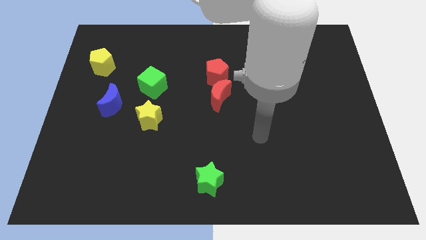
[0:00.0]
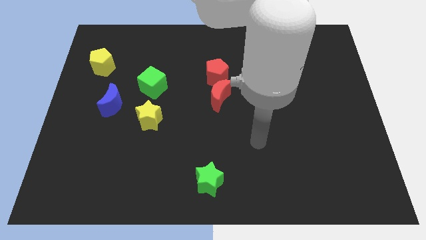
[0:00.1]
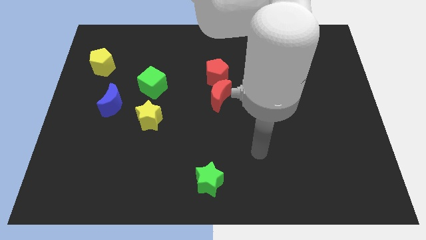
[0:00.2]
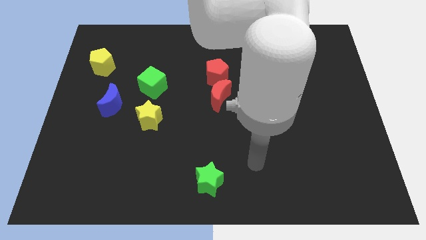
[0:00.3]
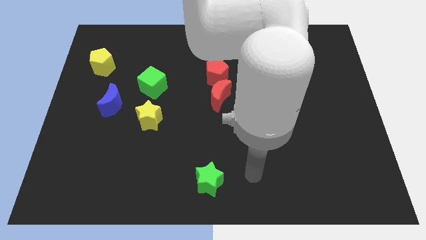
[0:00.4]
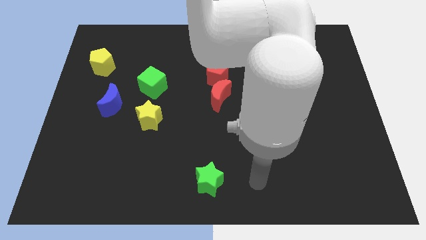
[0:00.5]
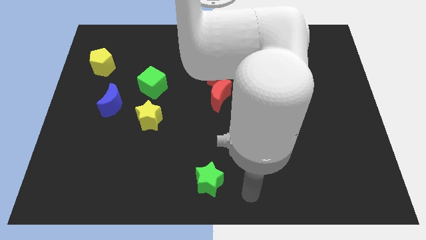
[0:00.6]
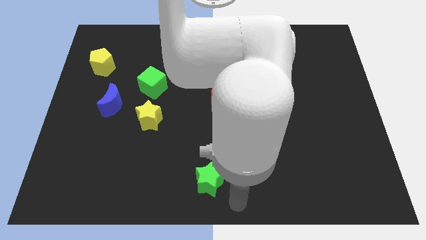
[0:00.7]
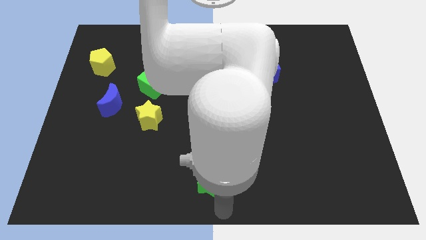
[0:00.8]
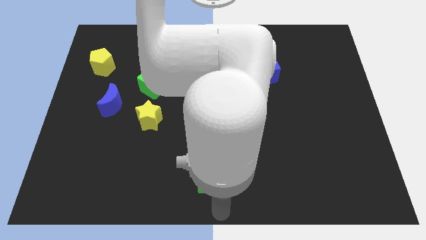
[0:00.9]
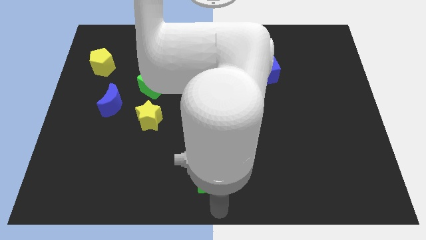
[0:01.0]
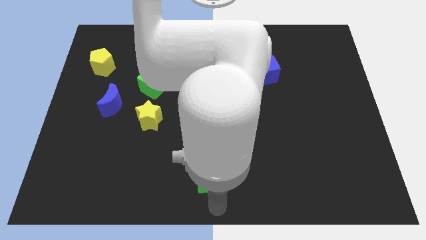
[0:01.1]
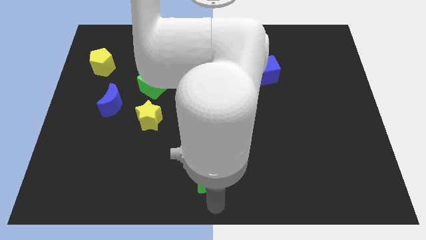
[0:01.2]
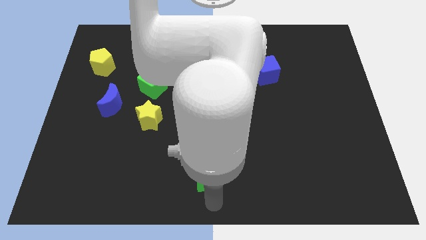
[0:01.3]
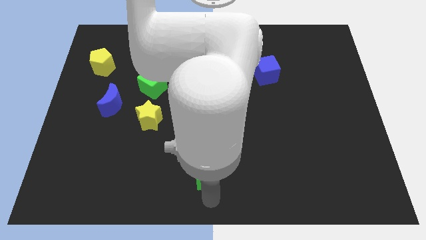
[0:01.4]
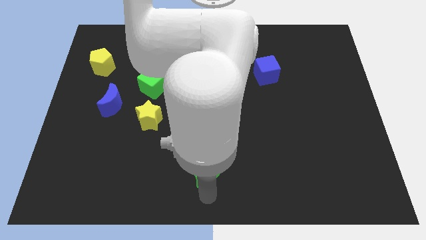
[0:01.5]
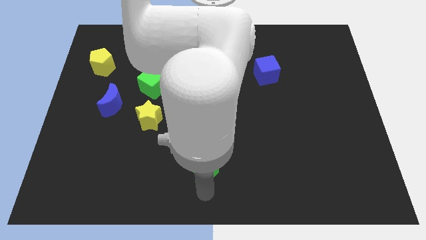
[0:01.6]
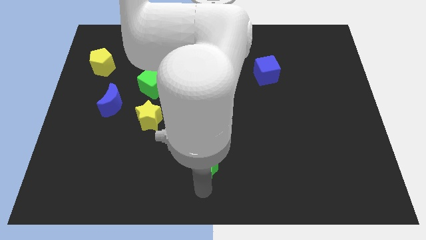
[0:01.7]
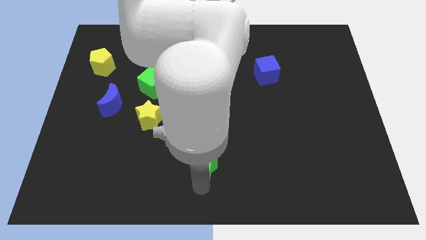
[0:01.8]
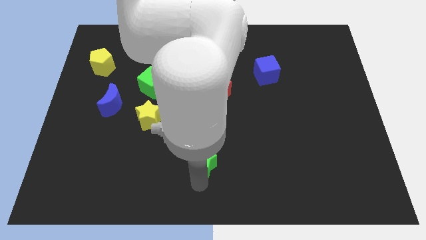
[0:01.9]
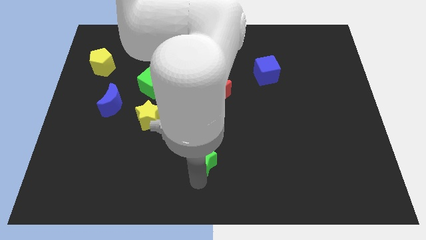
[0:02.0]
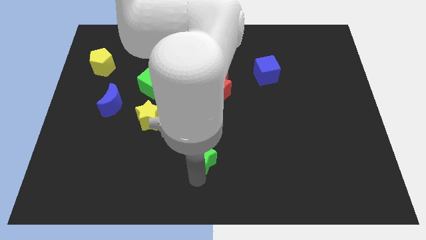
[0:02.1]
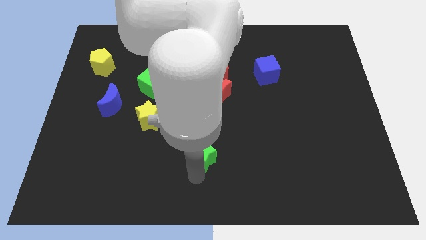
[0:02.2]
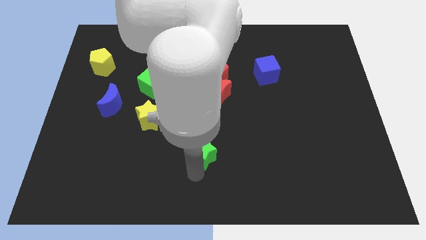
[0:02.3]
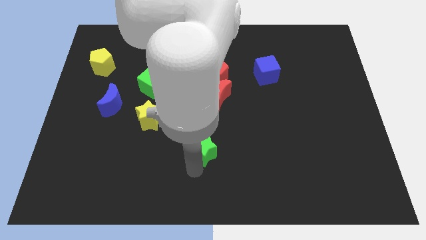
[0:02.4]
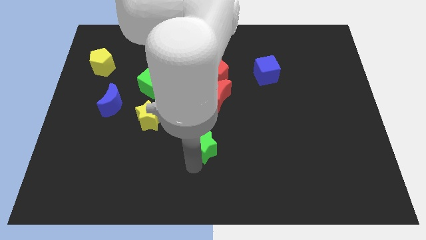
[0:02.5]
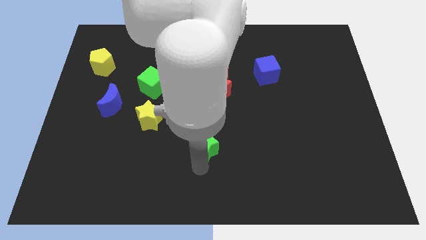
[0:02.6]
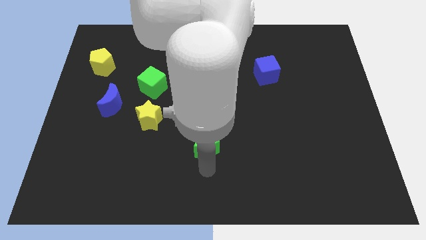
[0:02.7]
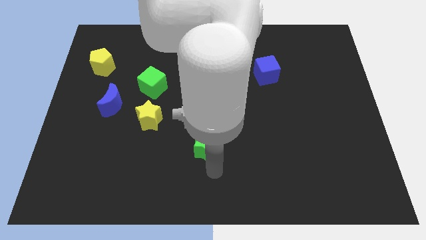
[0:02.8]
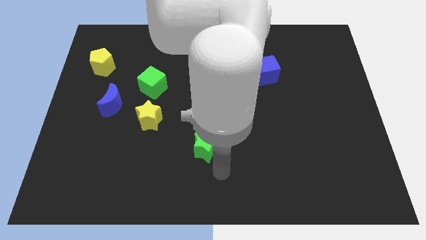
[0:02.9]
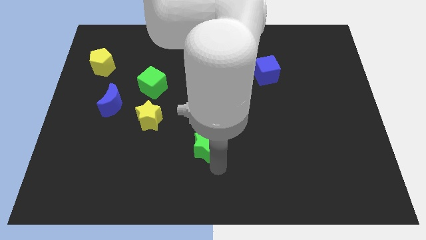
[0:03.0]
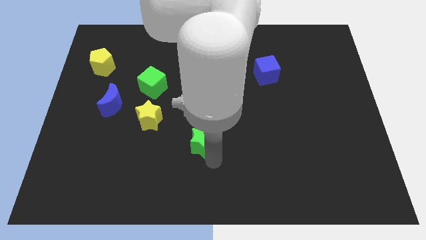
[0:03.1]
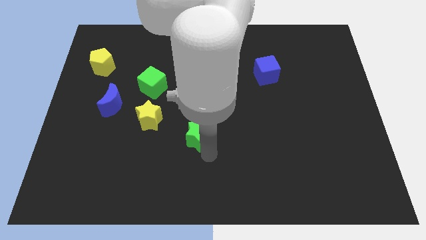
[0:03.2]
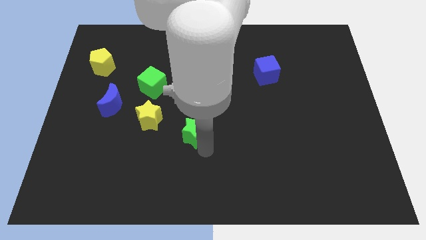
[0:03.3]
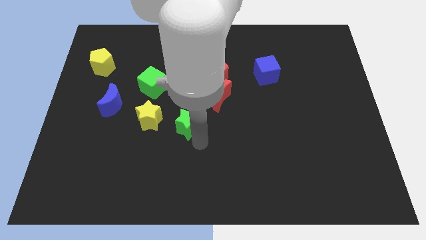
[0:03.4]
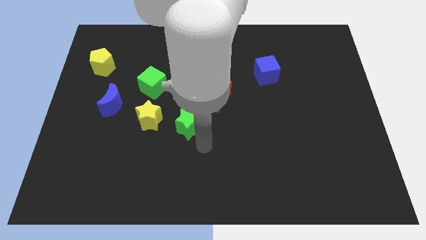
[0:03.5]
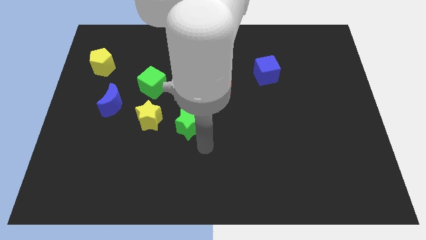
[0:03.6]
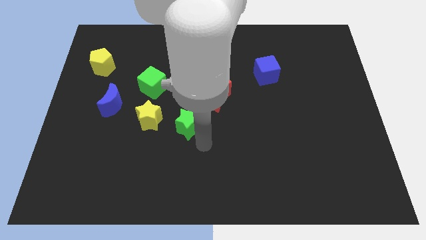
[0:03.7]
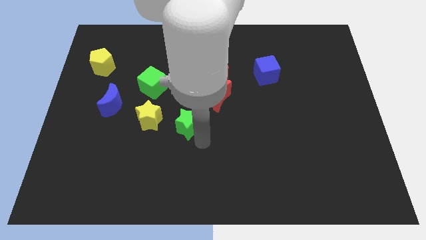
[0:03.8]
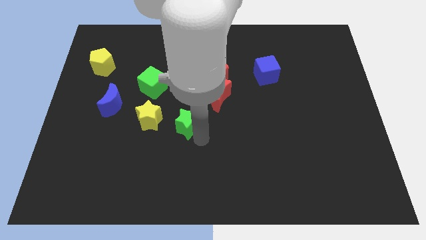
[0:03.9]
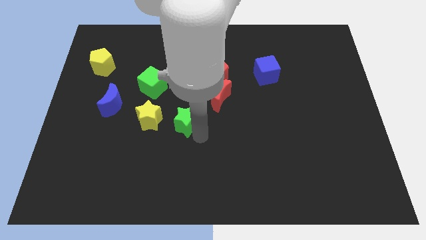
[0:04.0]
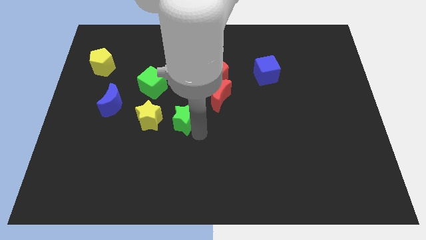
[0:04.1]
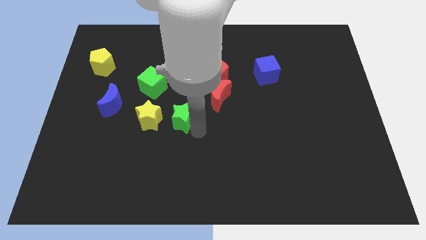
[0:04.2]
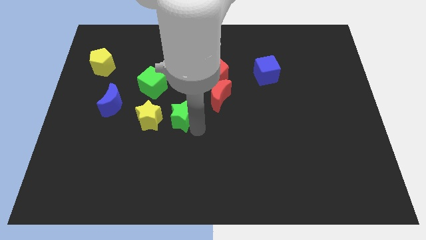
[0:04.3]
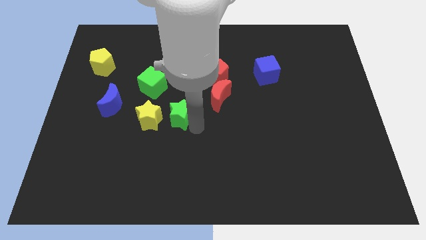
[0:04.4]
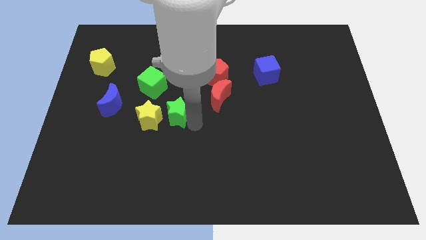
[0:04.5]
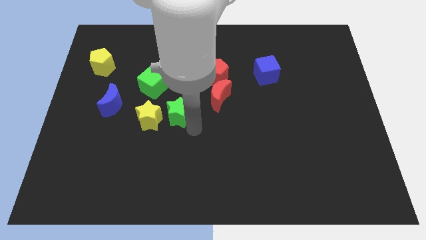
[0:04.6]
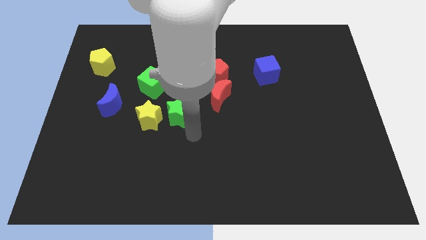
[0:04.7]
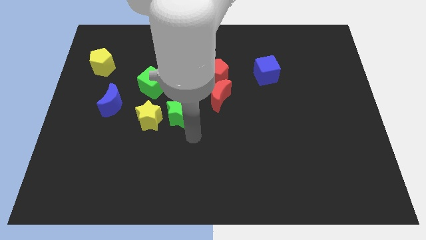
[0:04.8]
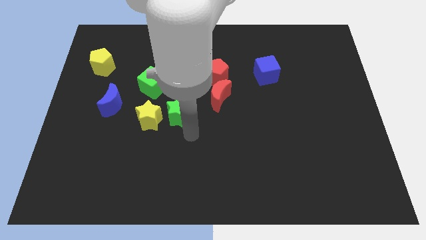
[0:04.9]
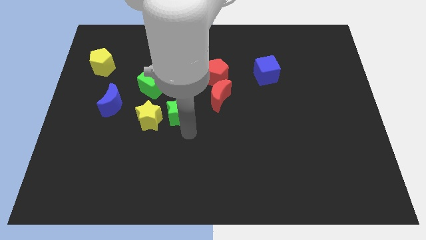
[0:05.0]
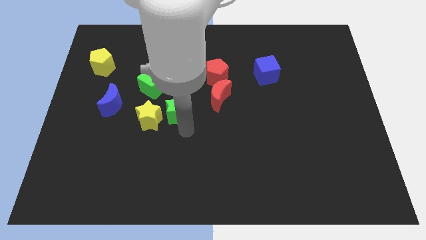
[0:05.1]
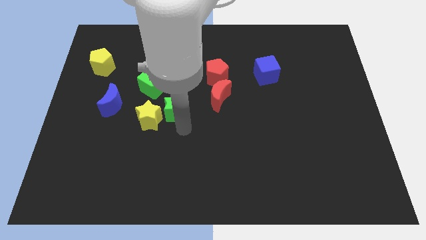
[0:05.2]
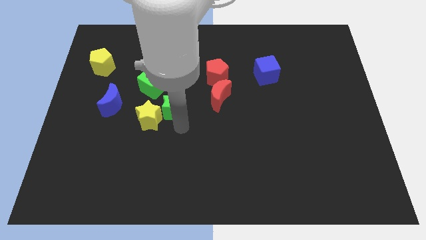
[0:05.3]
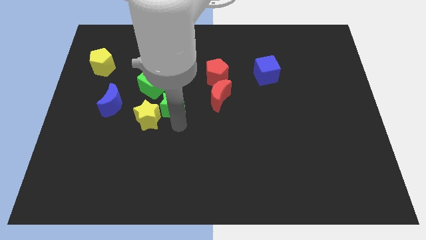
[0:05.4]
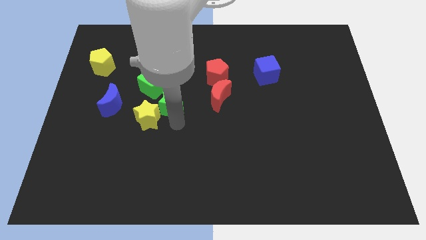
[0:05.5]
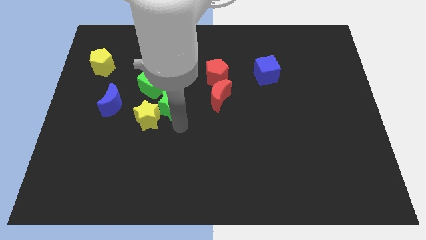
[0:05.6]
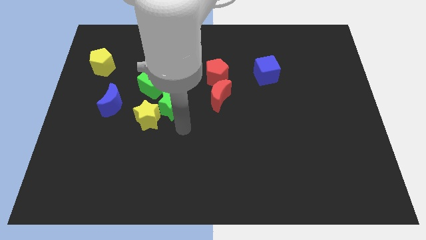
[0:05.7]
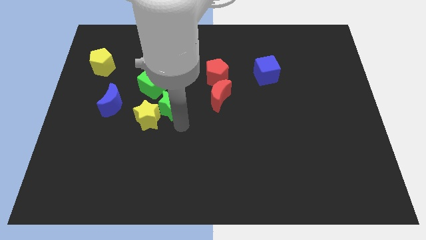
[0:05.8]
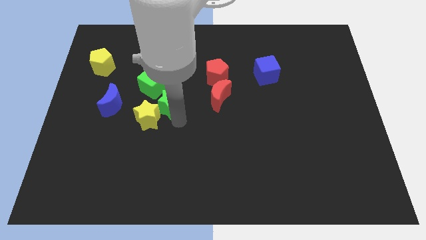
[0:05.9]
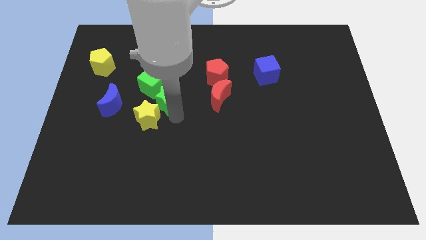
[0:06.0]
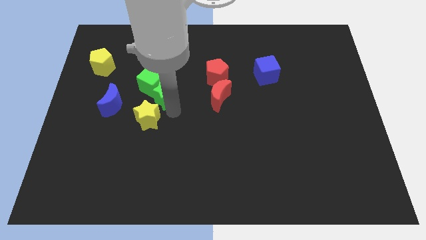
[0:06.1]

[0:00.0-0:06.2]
move the green star towards the green cube

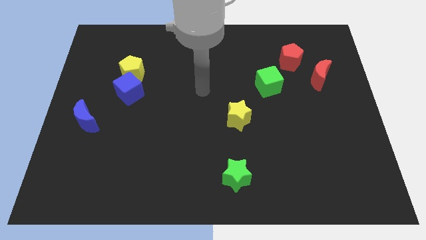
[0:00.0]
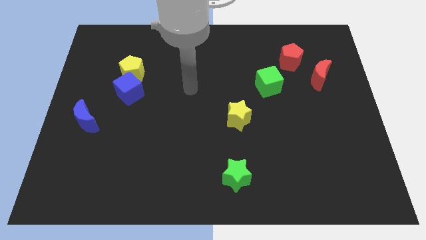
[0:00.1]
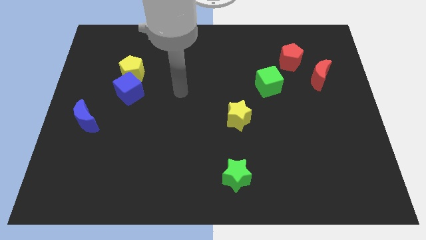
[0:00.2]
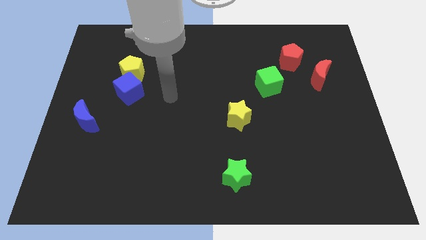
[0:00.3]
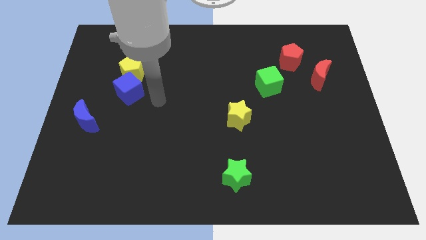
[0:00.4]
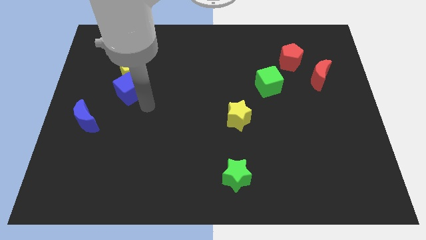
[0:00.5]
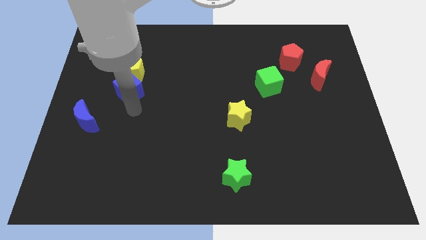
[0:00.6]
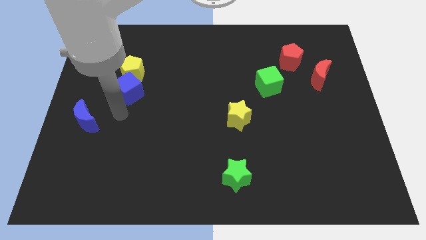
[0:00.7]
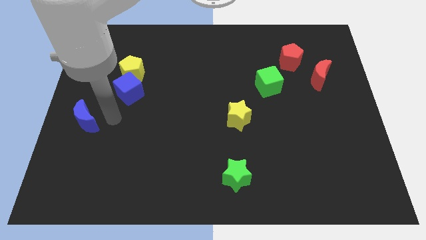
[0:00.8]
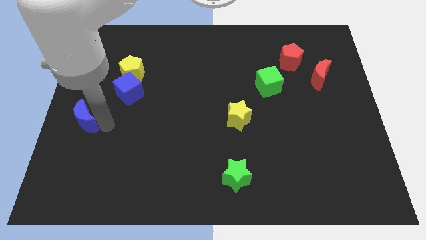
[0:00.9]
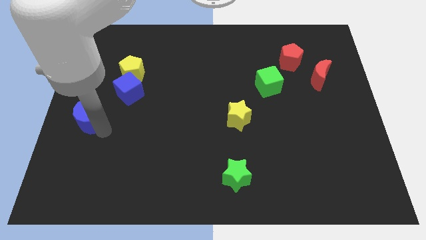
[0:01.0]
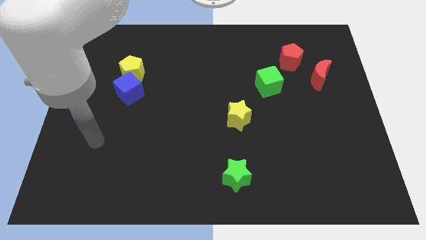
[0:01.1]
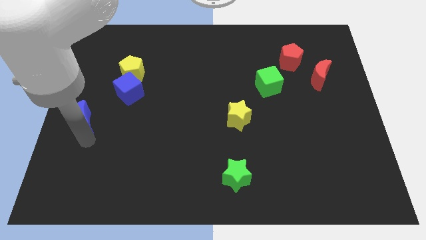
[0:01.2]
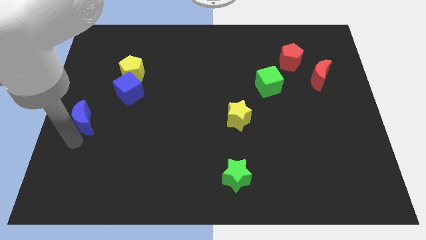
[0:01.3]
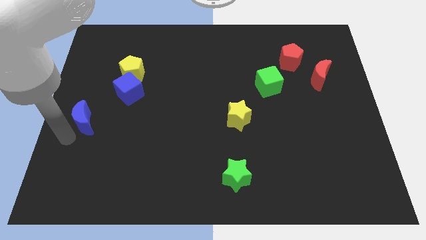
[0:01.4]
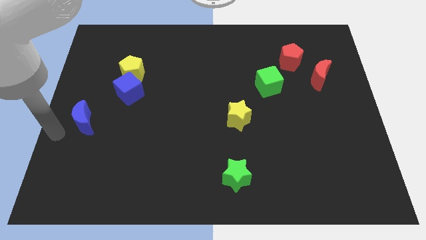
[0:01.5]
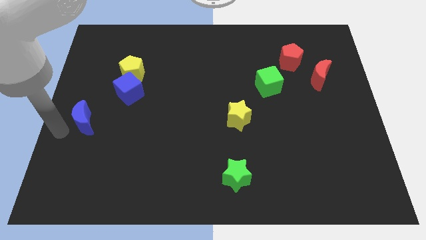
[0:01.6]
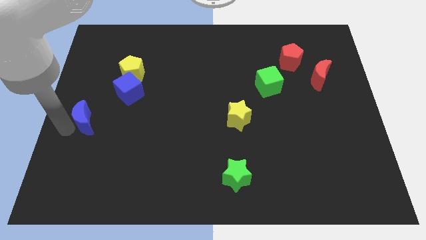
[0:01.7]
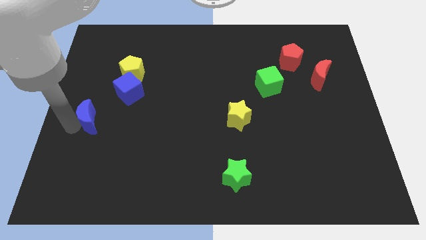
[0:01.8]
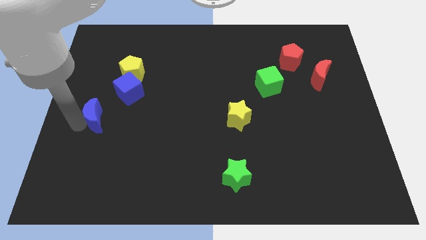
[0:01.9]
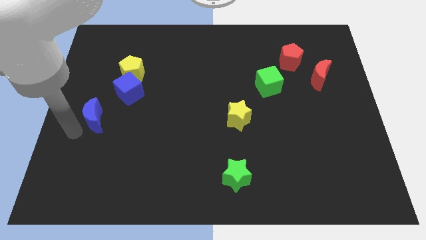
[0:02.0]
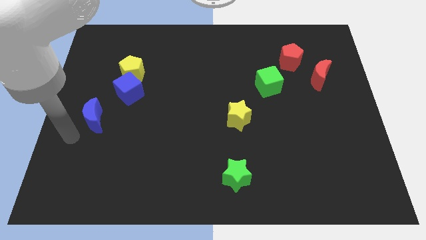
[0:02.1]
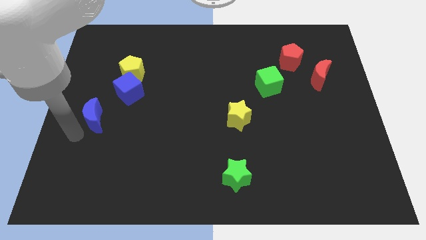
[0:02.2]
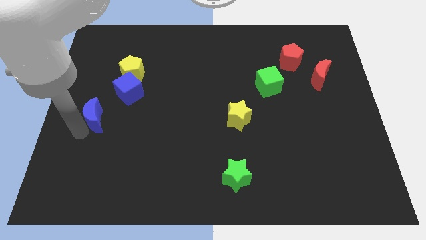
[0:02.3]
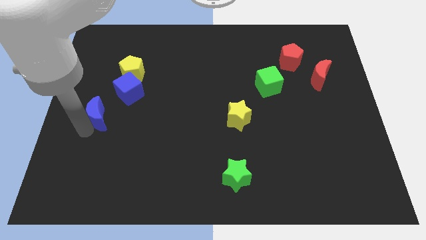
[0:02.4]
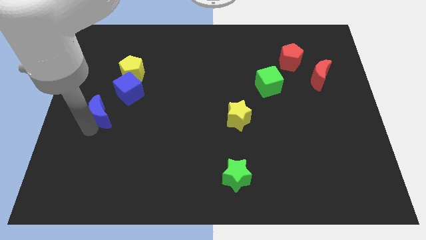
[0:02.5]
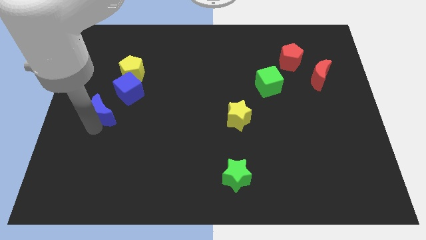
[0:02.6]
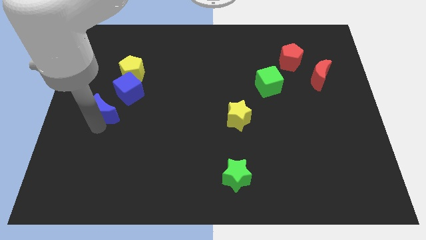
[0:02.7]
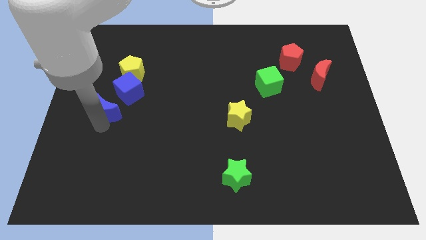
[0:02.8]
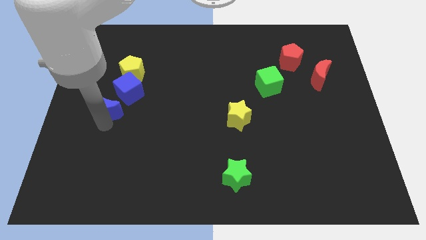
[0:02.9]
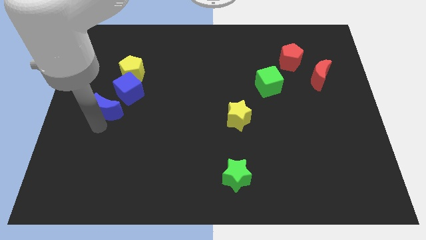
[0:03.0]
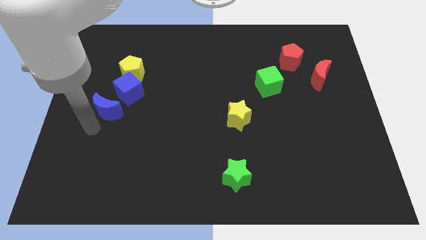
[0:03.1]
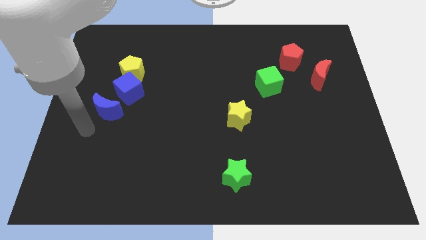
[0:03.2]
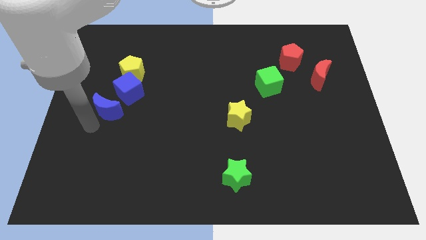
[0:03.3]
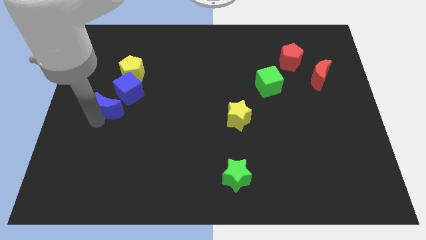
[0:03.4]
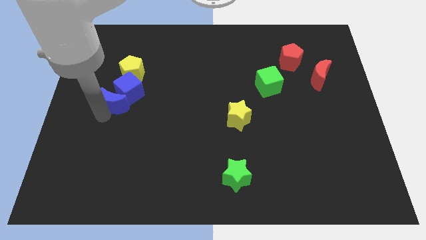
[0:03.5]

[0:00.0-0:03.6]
push the blue moon towards the blue cube
